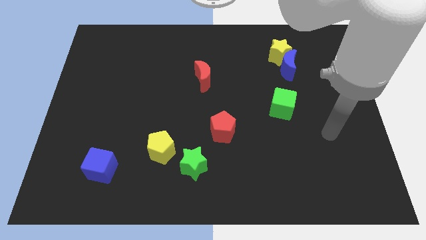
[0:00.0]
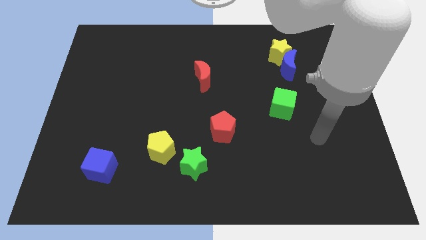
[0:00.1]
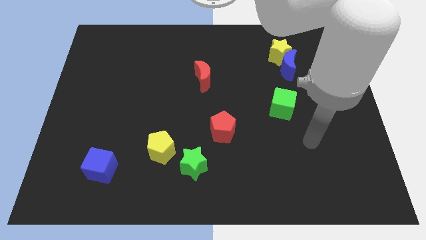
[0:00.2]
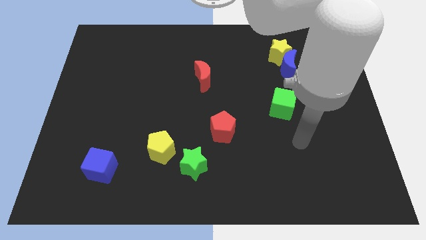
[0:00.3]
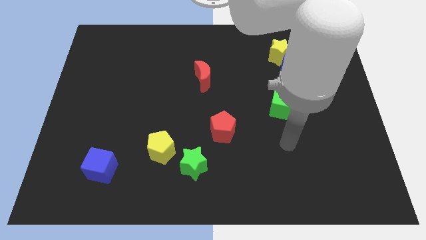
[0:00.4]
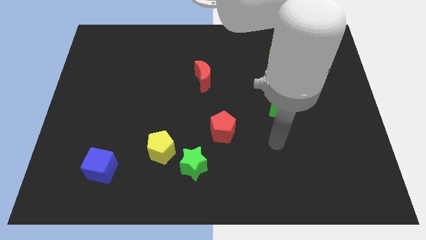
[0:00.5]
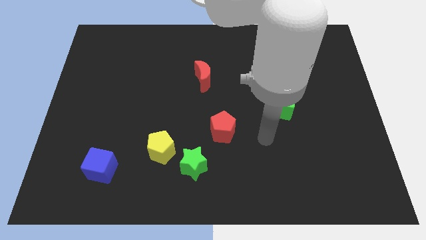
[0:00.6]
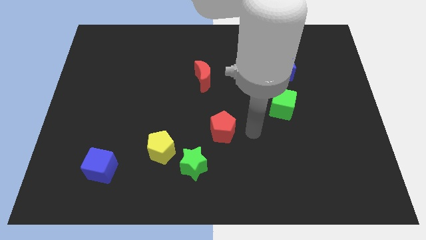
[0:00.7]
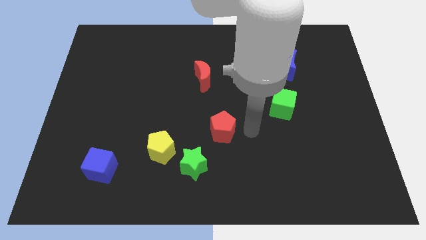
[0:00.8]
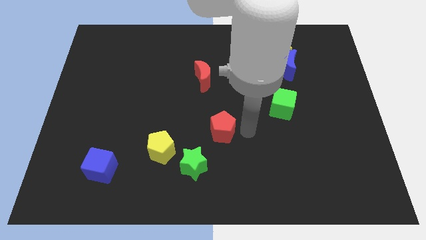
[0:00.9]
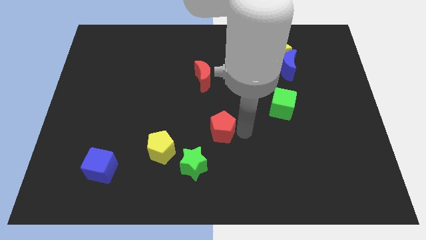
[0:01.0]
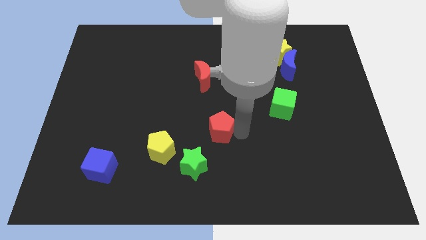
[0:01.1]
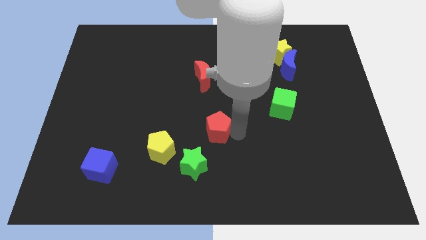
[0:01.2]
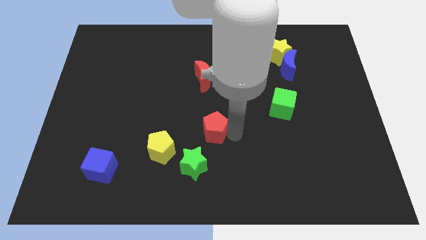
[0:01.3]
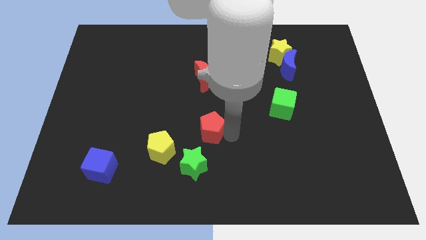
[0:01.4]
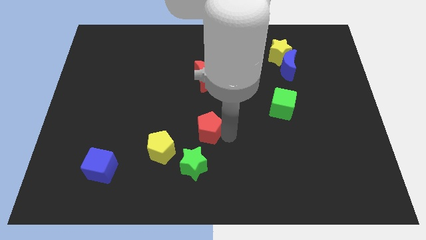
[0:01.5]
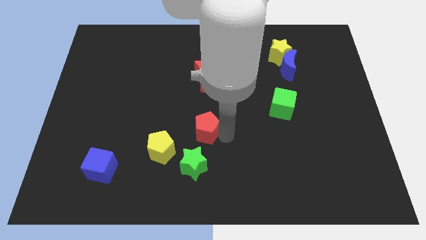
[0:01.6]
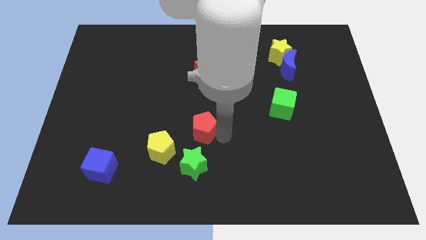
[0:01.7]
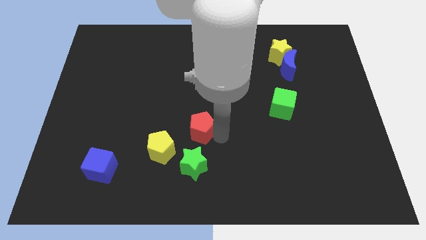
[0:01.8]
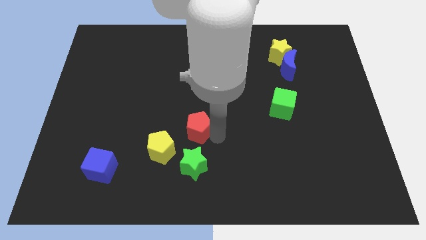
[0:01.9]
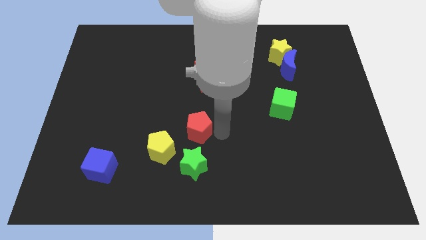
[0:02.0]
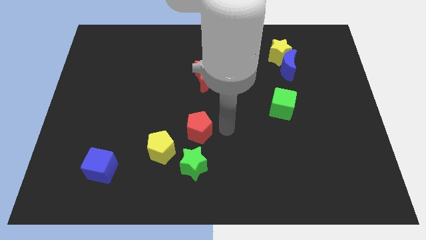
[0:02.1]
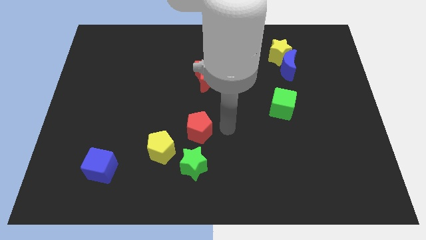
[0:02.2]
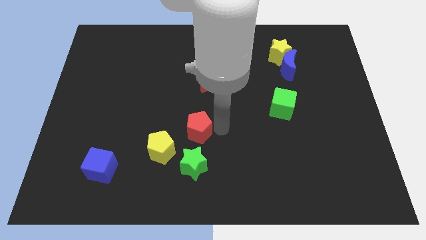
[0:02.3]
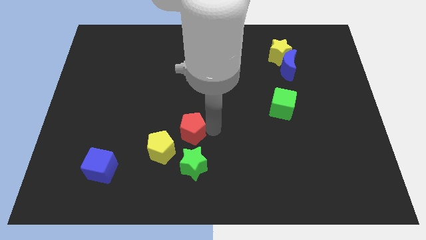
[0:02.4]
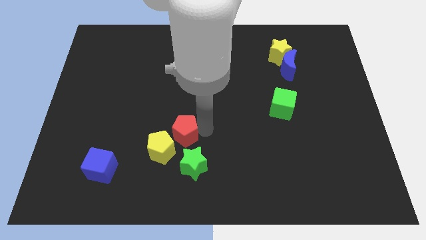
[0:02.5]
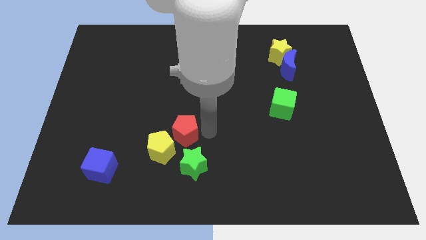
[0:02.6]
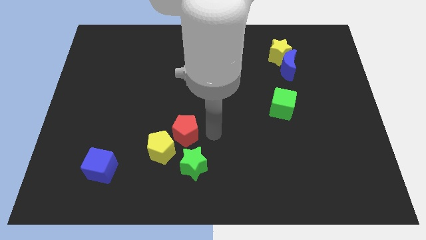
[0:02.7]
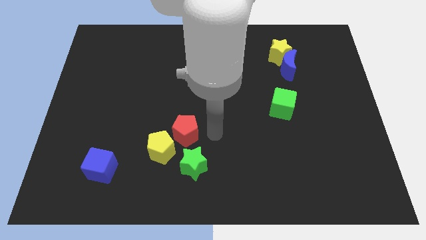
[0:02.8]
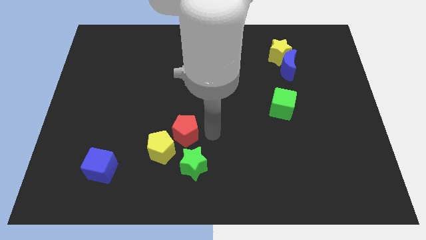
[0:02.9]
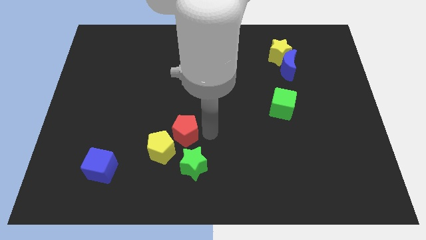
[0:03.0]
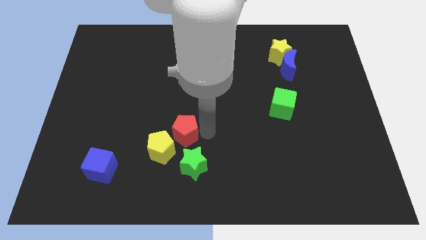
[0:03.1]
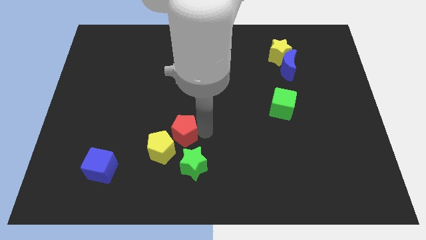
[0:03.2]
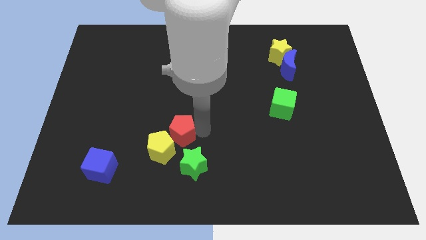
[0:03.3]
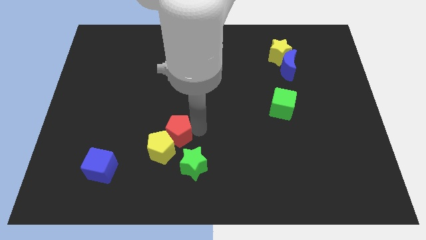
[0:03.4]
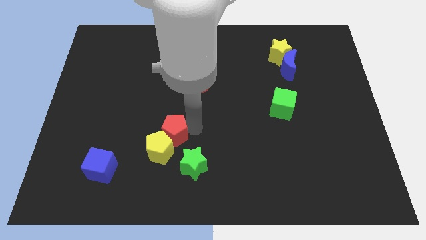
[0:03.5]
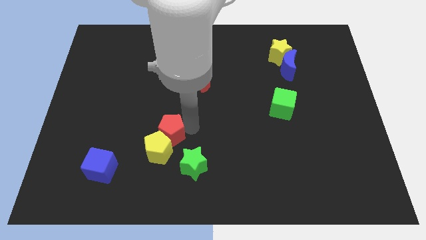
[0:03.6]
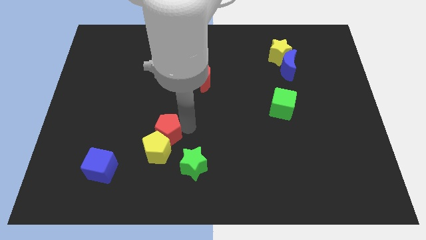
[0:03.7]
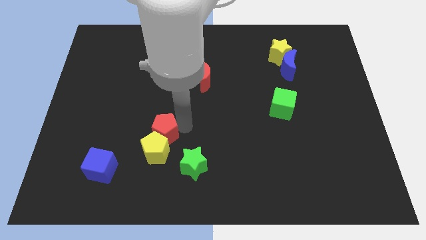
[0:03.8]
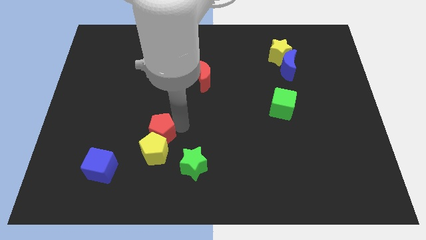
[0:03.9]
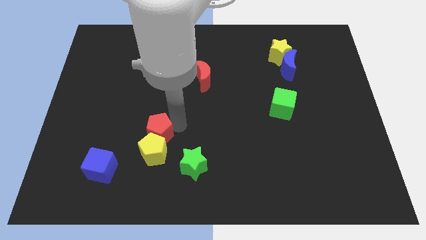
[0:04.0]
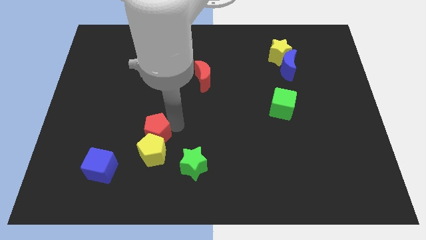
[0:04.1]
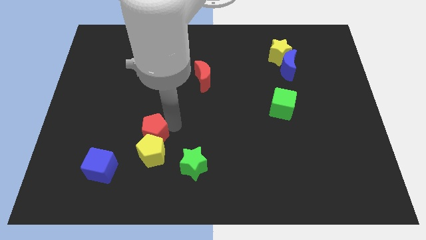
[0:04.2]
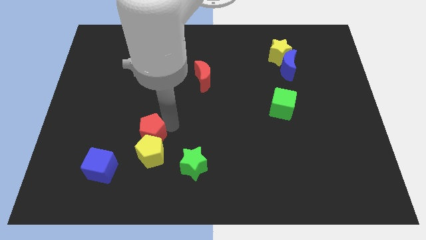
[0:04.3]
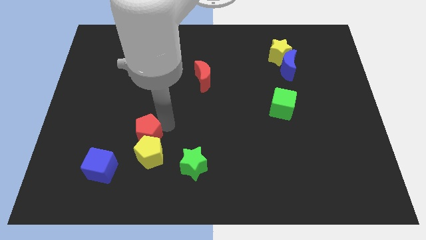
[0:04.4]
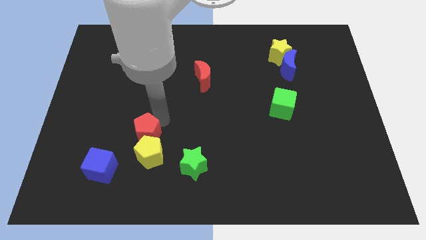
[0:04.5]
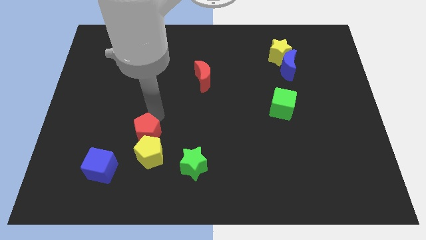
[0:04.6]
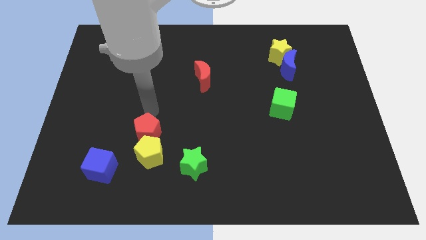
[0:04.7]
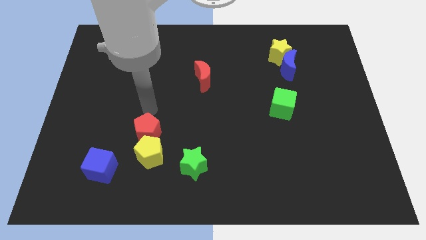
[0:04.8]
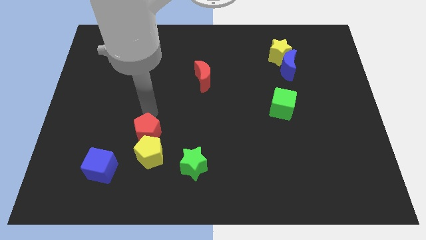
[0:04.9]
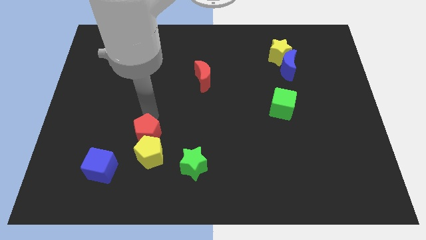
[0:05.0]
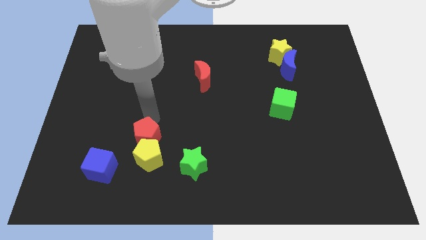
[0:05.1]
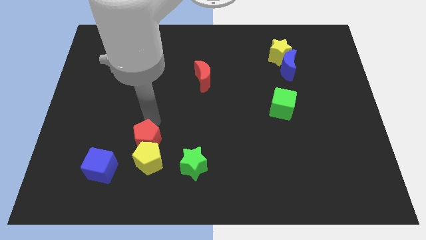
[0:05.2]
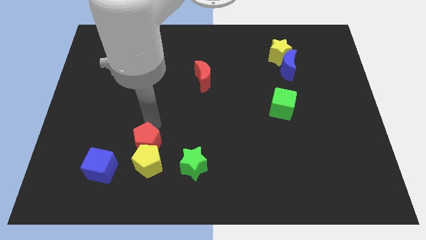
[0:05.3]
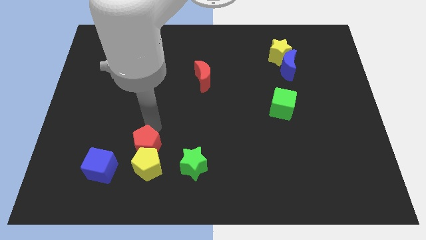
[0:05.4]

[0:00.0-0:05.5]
put the red pentagon to the left of the green star

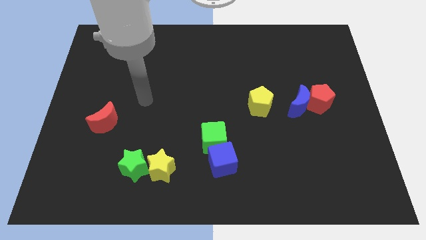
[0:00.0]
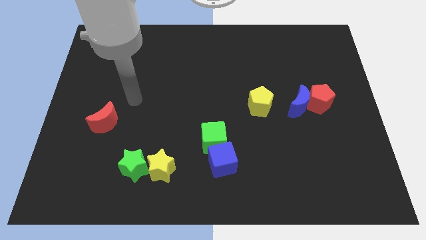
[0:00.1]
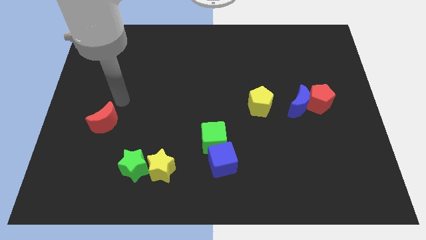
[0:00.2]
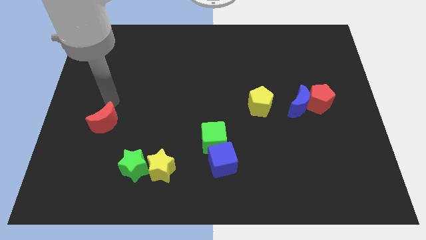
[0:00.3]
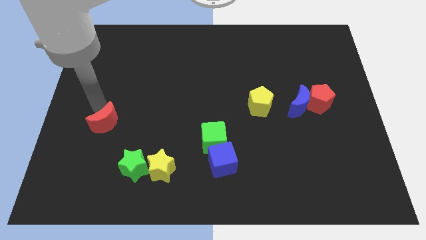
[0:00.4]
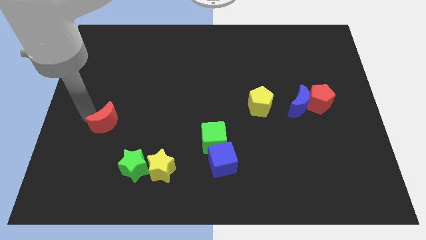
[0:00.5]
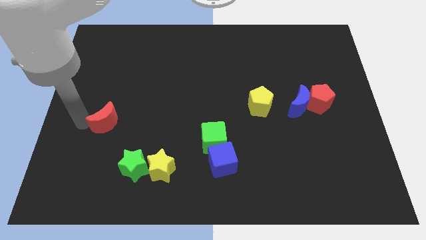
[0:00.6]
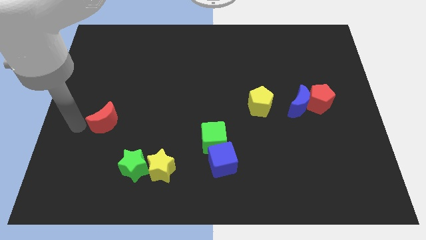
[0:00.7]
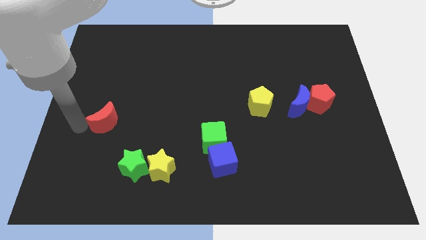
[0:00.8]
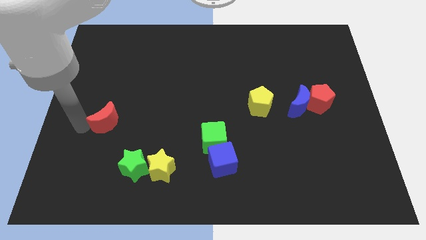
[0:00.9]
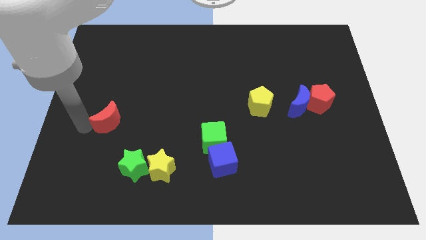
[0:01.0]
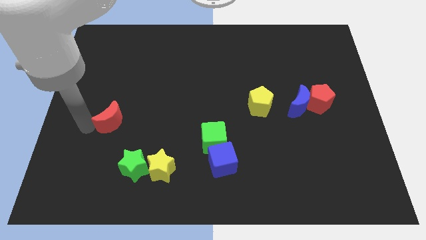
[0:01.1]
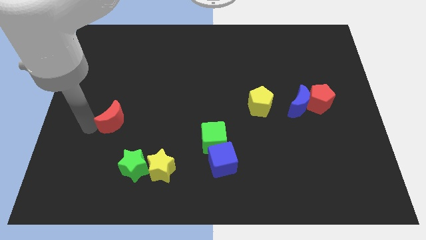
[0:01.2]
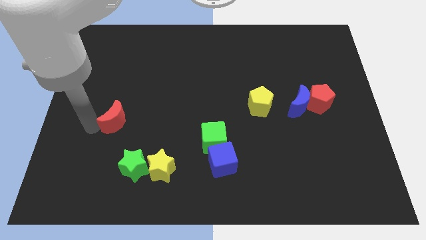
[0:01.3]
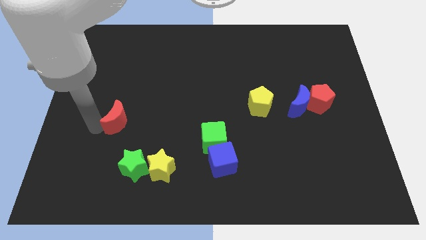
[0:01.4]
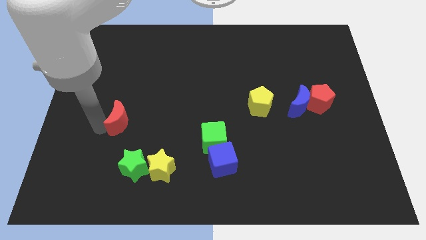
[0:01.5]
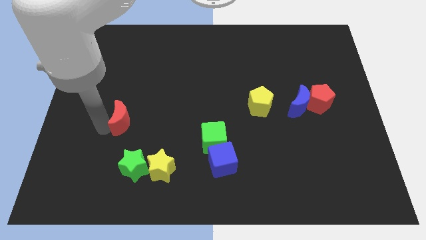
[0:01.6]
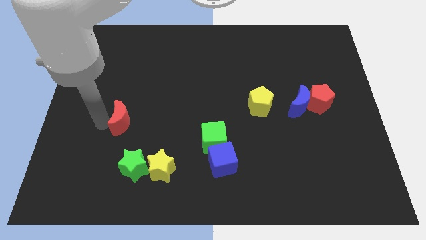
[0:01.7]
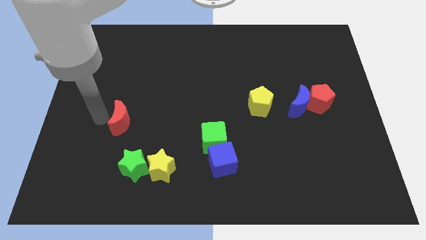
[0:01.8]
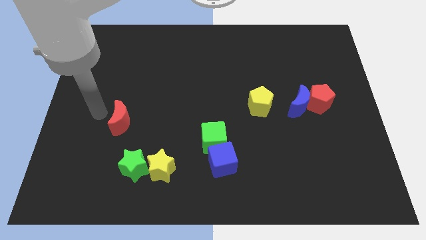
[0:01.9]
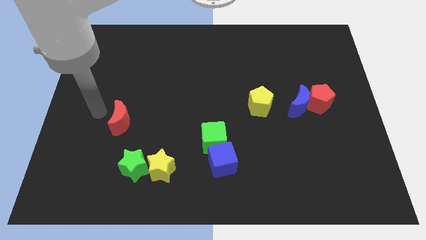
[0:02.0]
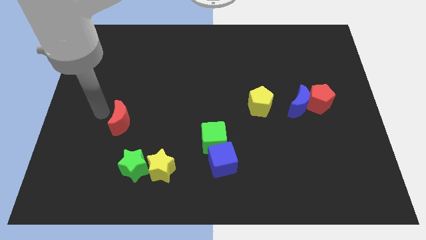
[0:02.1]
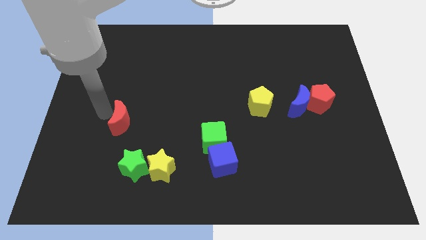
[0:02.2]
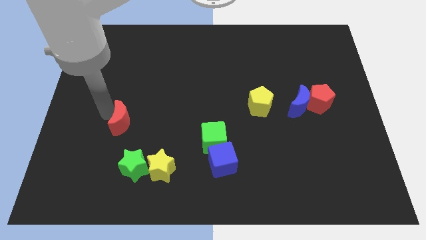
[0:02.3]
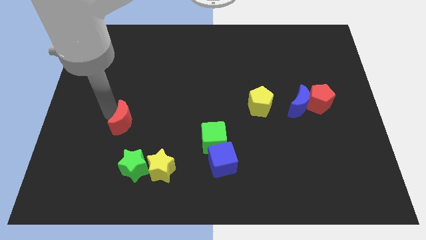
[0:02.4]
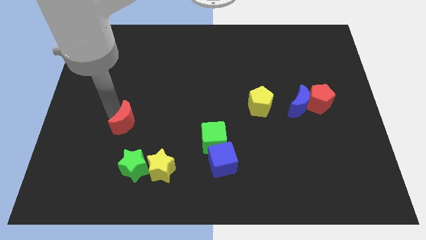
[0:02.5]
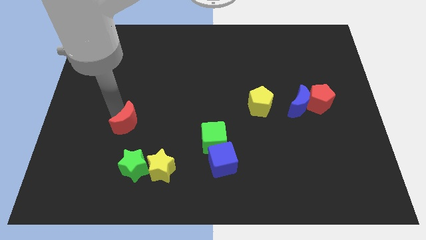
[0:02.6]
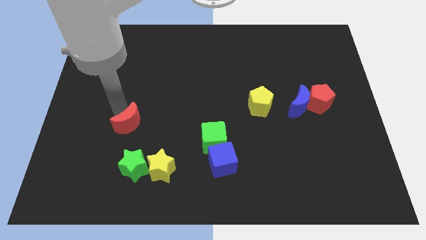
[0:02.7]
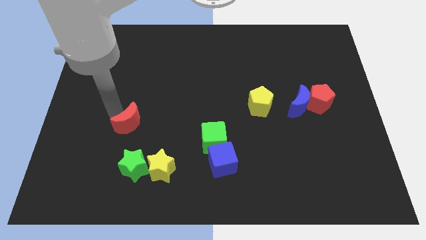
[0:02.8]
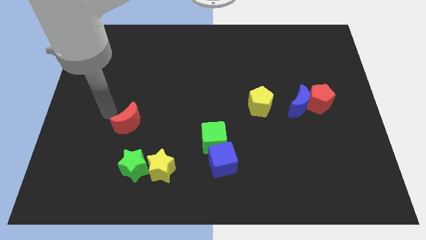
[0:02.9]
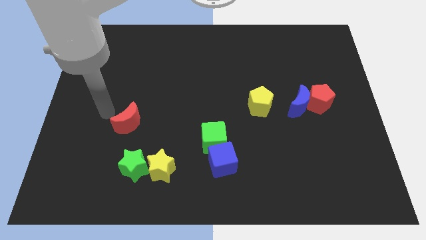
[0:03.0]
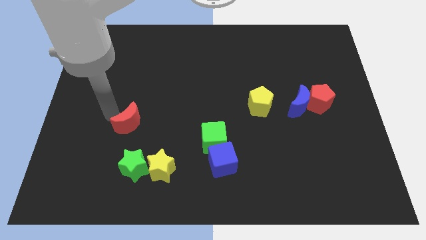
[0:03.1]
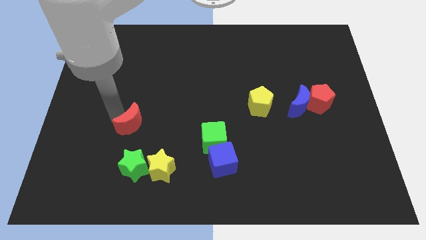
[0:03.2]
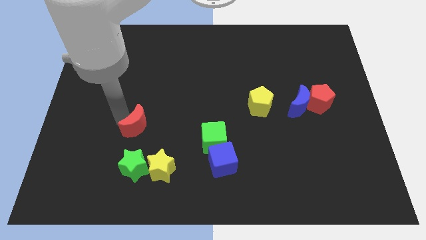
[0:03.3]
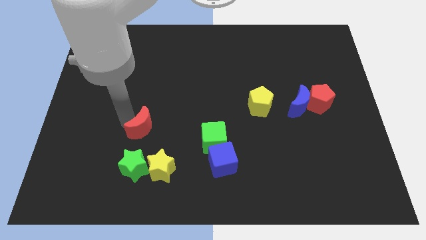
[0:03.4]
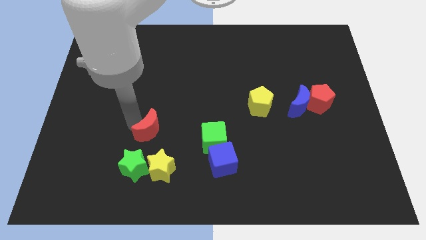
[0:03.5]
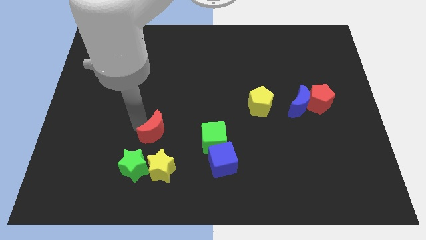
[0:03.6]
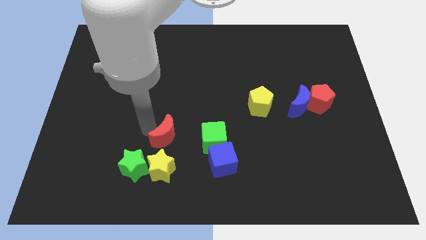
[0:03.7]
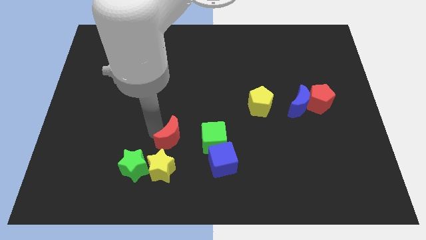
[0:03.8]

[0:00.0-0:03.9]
move the red moon to the top right side of the yellow star
